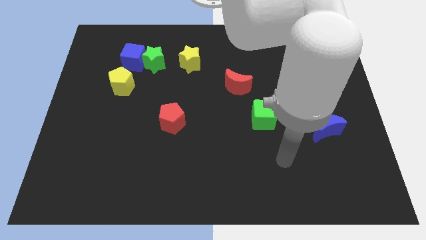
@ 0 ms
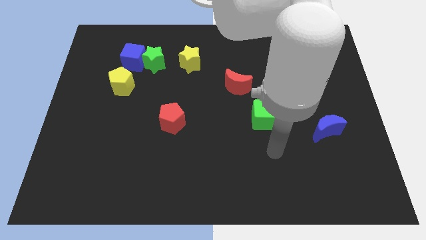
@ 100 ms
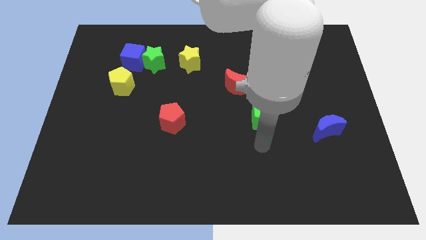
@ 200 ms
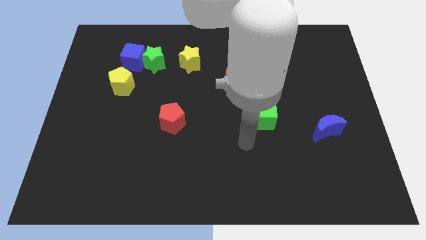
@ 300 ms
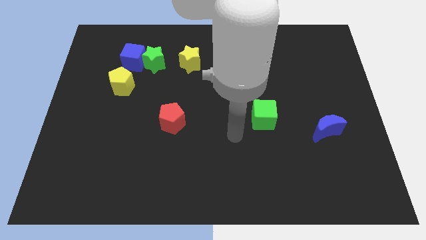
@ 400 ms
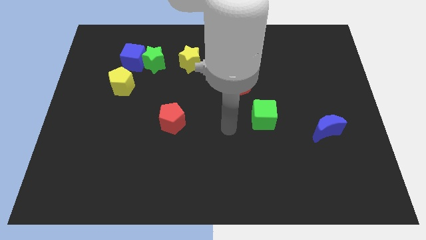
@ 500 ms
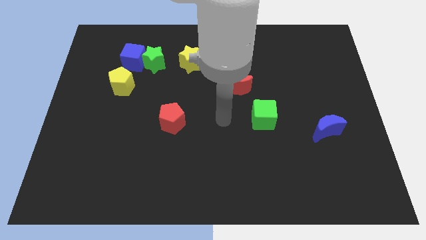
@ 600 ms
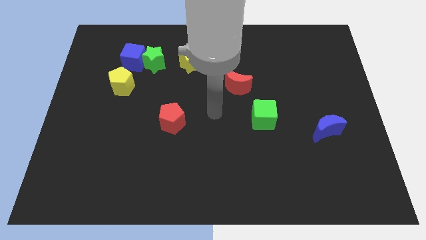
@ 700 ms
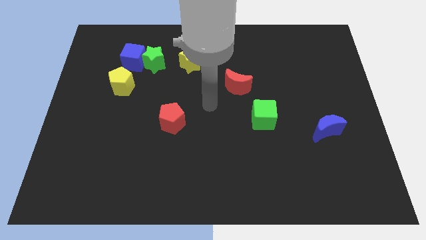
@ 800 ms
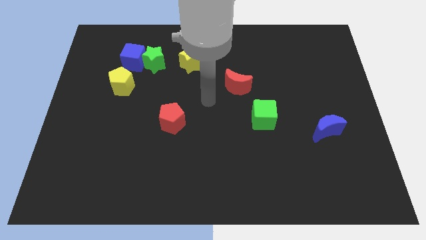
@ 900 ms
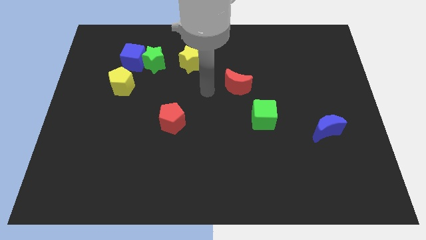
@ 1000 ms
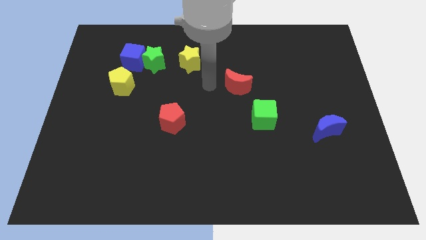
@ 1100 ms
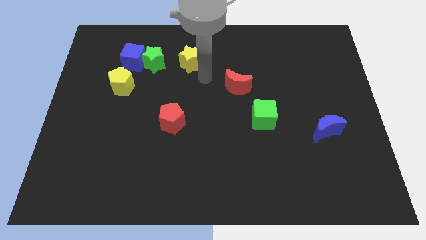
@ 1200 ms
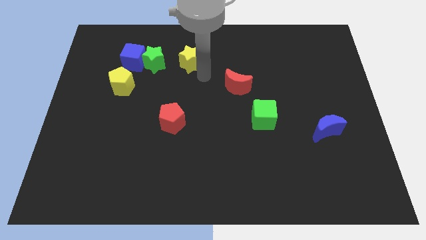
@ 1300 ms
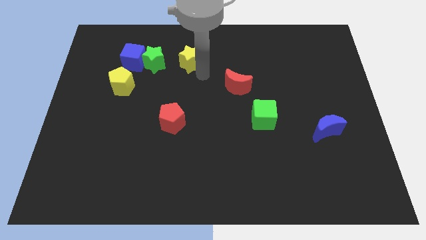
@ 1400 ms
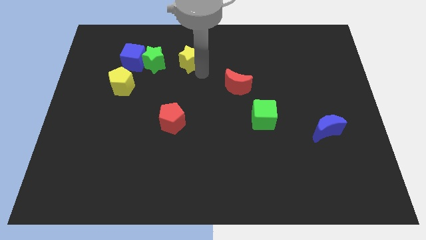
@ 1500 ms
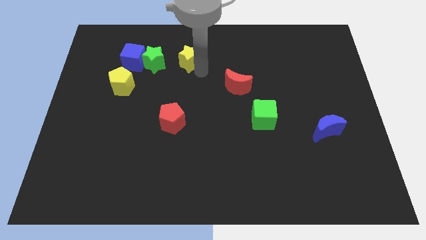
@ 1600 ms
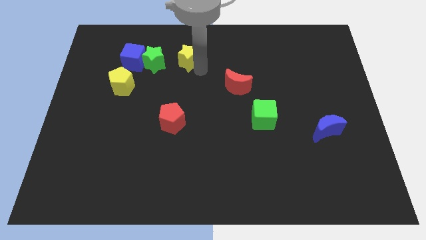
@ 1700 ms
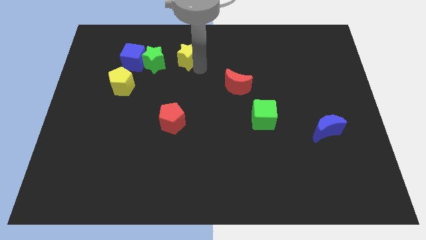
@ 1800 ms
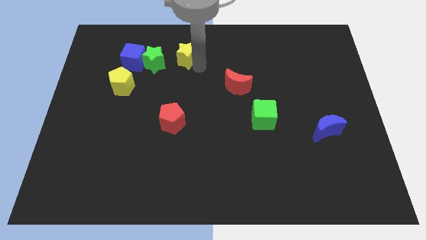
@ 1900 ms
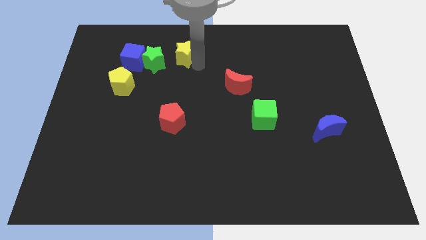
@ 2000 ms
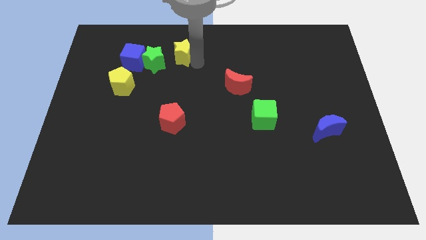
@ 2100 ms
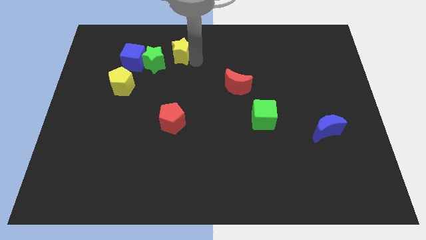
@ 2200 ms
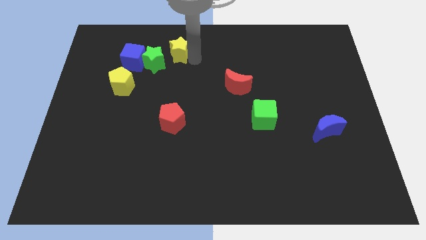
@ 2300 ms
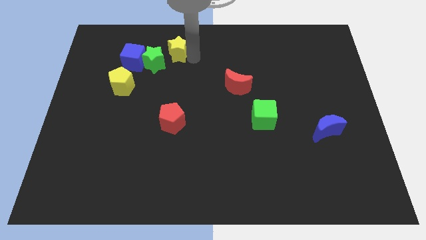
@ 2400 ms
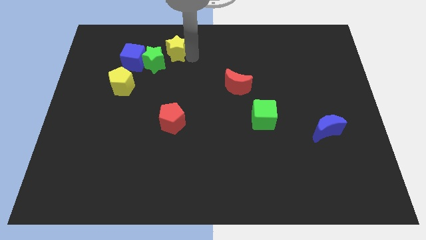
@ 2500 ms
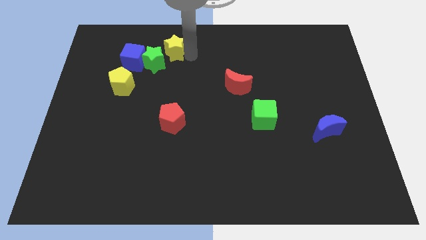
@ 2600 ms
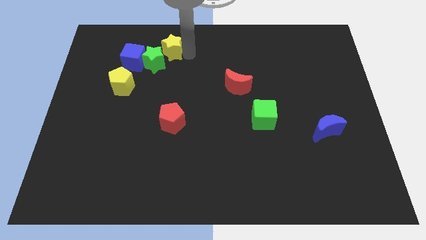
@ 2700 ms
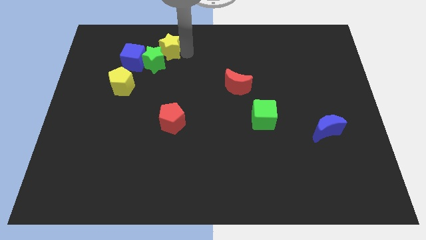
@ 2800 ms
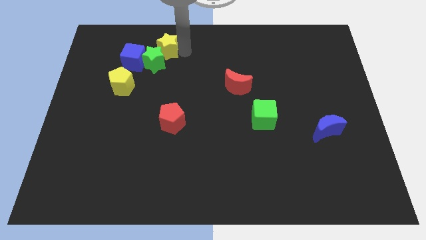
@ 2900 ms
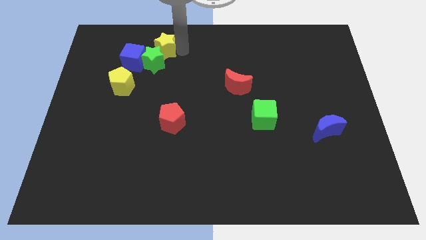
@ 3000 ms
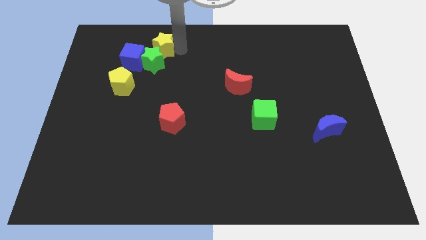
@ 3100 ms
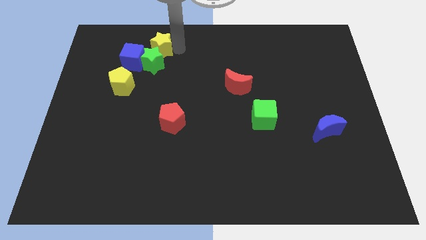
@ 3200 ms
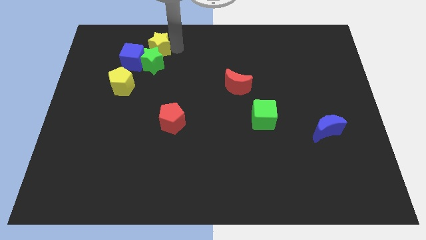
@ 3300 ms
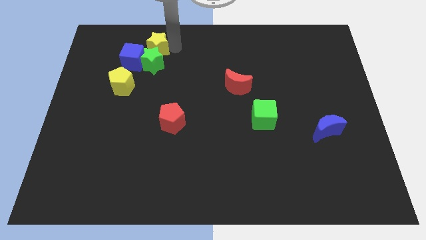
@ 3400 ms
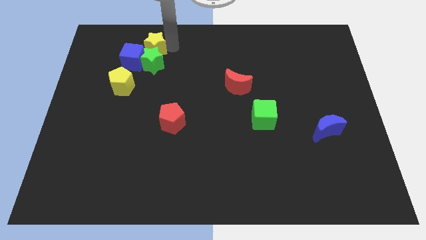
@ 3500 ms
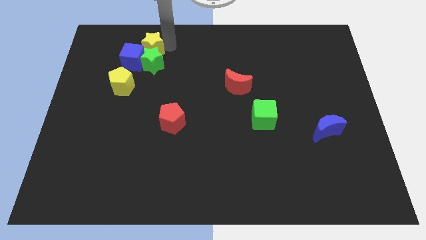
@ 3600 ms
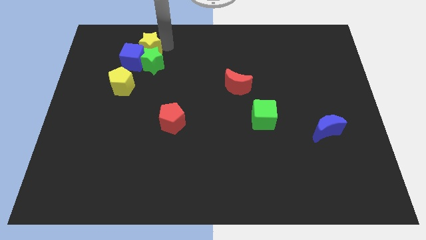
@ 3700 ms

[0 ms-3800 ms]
slide the yellow star towards the blue cube

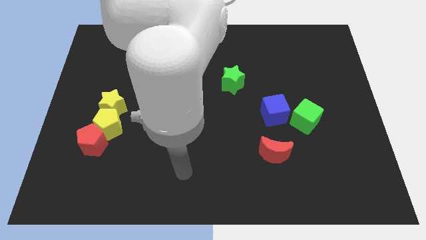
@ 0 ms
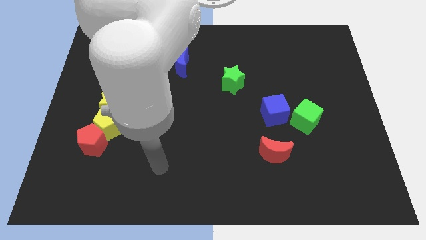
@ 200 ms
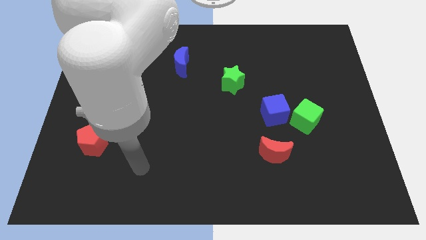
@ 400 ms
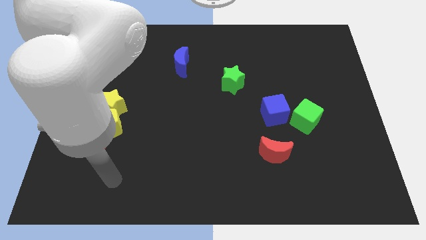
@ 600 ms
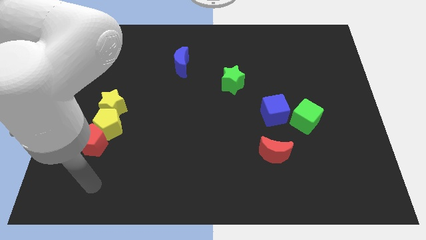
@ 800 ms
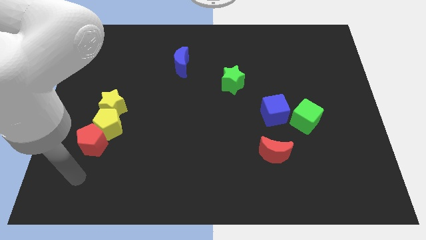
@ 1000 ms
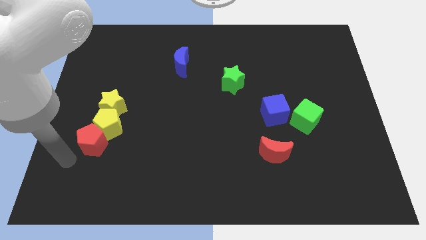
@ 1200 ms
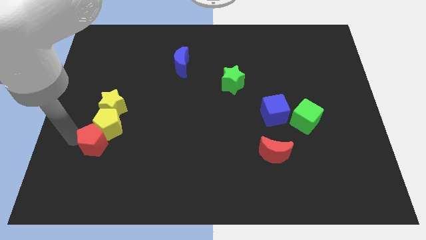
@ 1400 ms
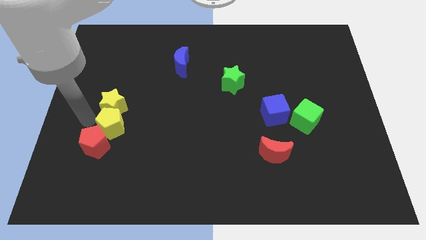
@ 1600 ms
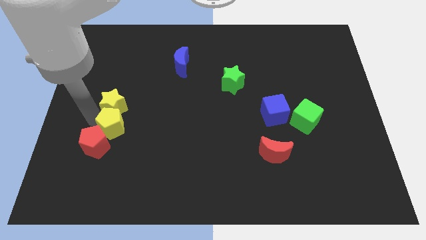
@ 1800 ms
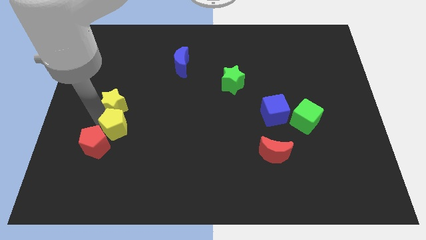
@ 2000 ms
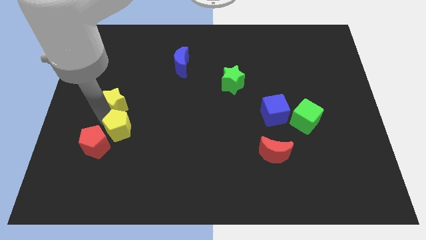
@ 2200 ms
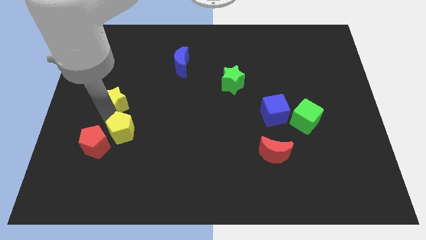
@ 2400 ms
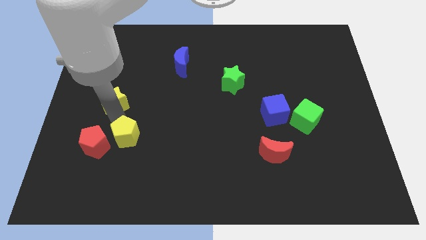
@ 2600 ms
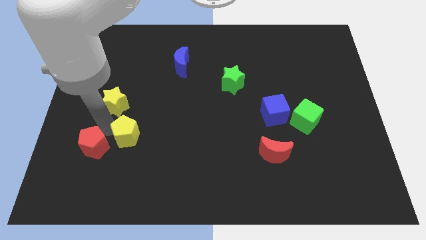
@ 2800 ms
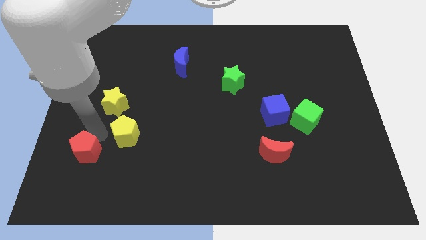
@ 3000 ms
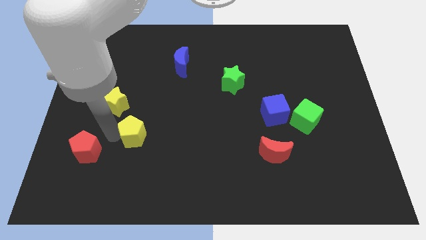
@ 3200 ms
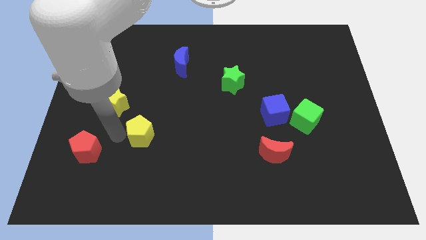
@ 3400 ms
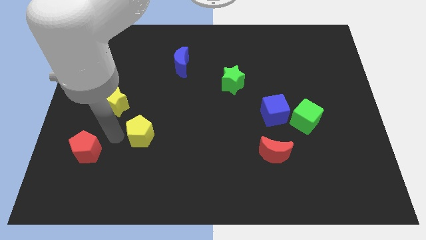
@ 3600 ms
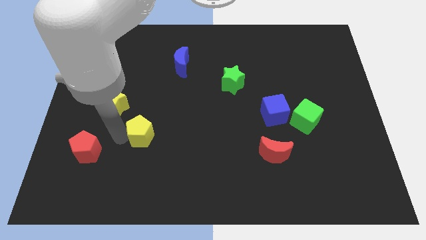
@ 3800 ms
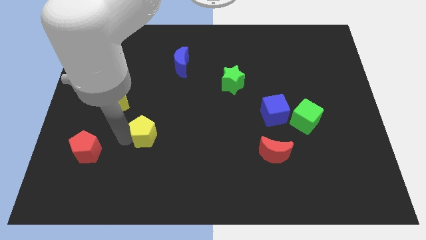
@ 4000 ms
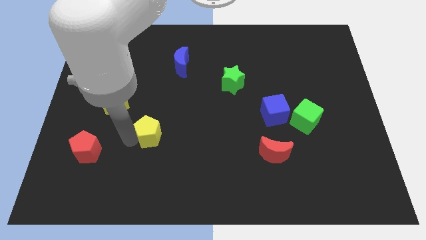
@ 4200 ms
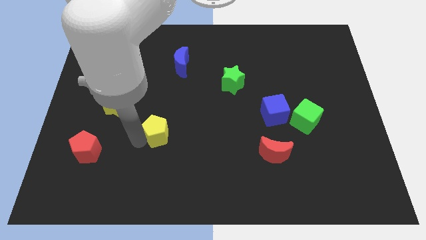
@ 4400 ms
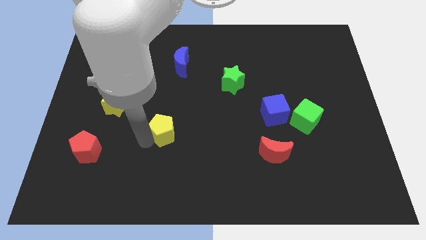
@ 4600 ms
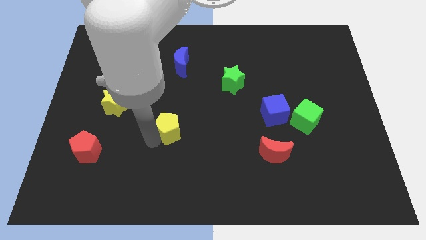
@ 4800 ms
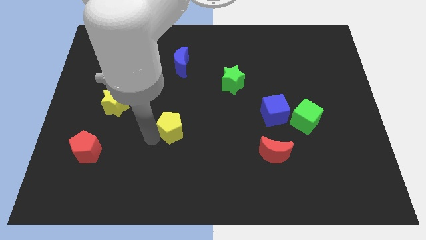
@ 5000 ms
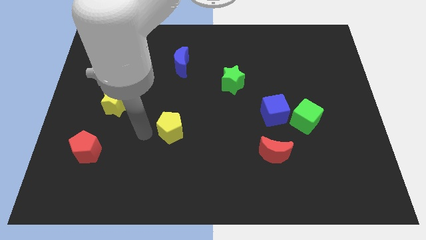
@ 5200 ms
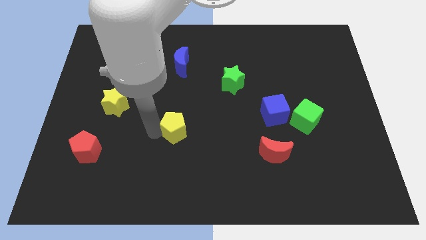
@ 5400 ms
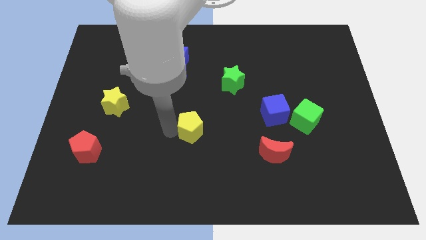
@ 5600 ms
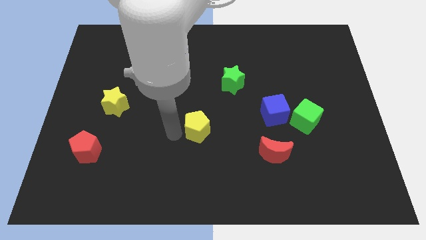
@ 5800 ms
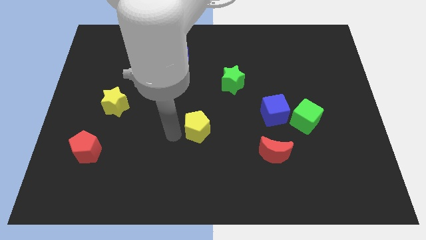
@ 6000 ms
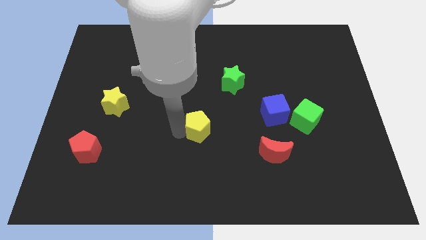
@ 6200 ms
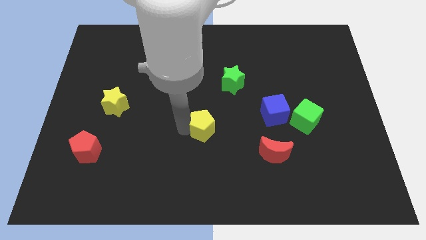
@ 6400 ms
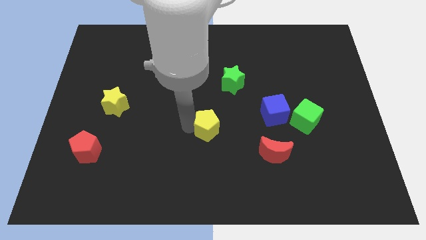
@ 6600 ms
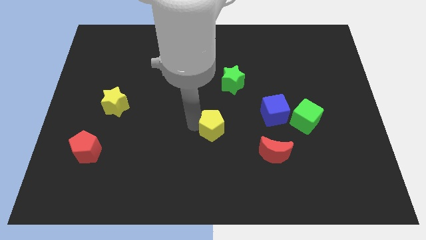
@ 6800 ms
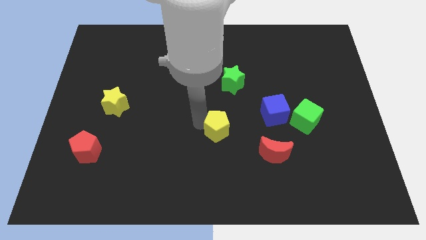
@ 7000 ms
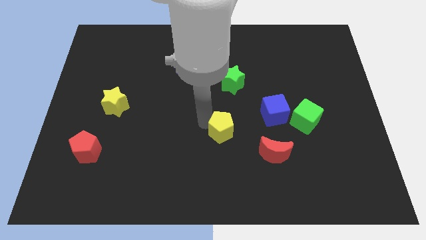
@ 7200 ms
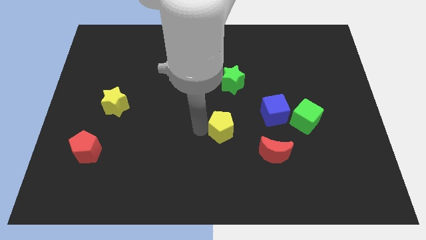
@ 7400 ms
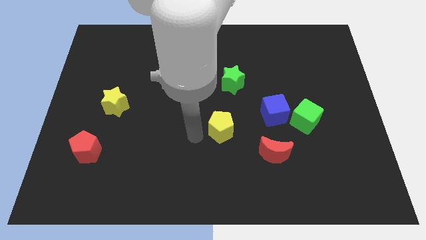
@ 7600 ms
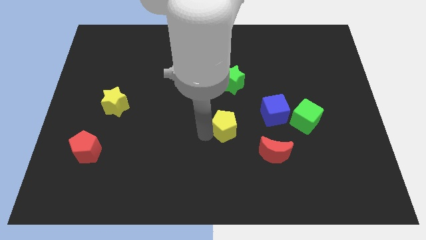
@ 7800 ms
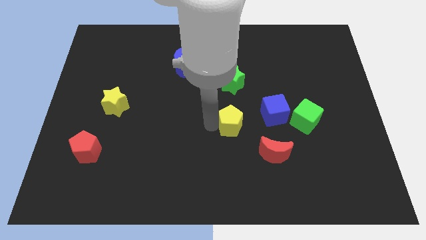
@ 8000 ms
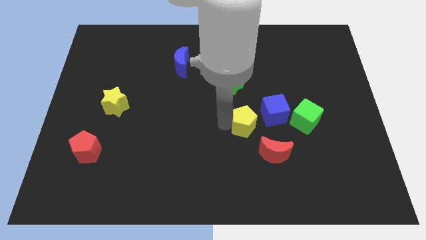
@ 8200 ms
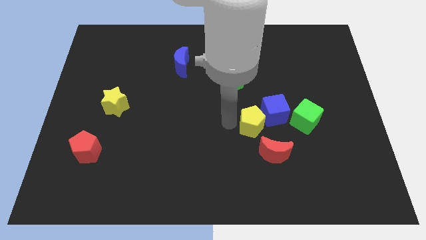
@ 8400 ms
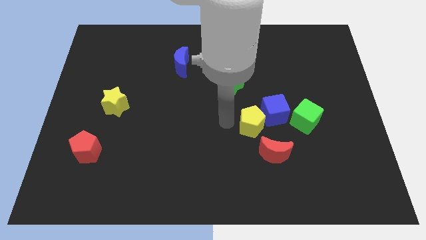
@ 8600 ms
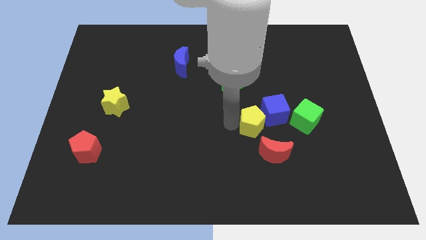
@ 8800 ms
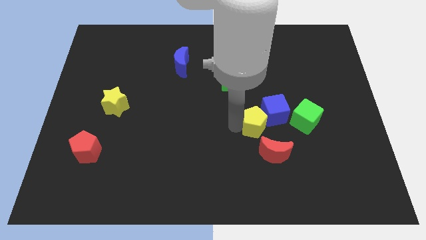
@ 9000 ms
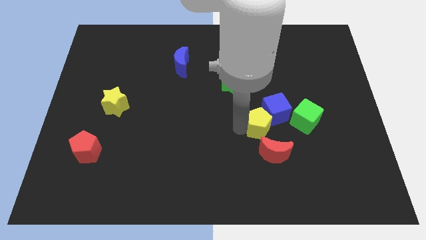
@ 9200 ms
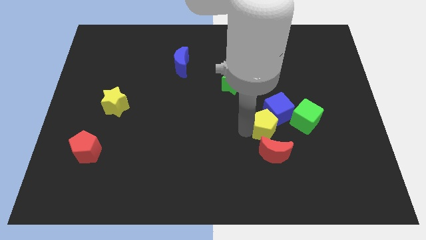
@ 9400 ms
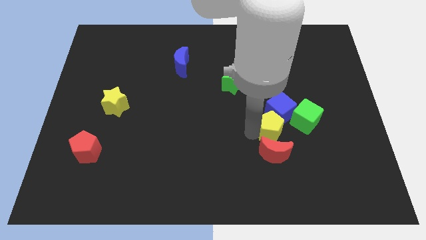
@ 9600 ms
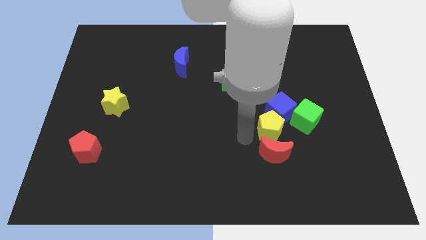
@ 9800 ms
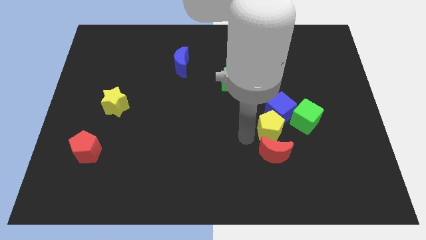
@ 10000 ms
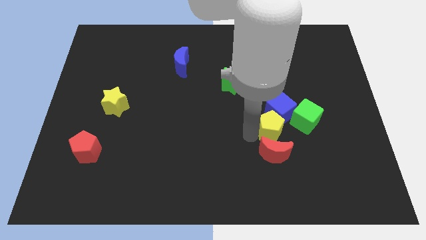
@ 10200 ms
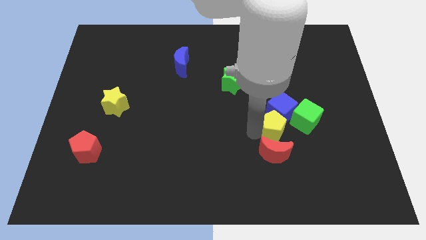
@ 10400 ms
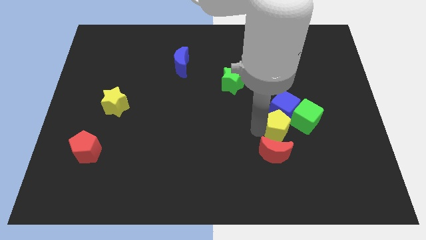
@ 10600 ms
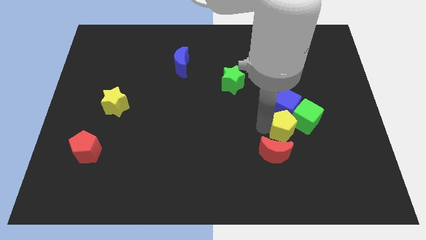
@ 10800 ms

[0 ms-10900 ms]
slide the yellow pentagon to the green cube
